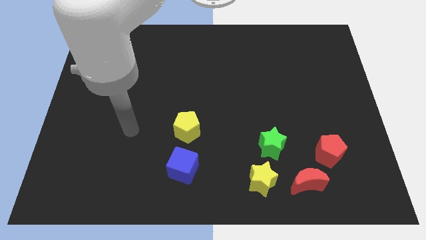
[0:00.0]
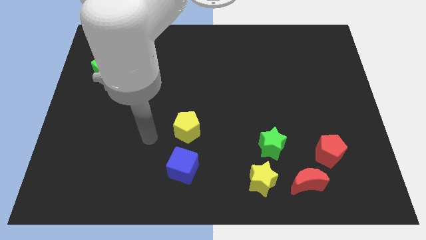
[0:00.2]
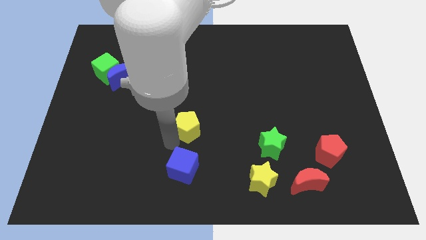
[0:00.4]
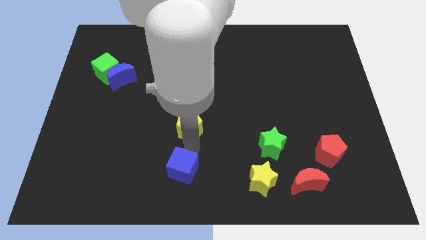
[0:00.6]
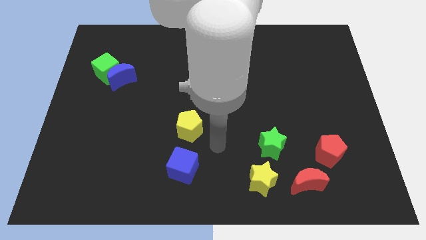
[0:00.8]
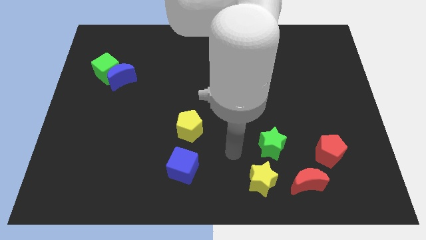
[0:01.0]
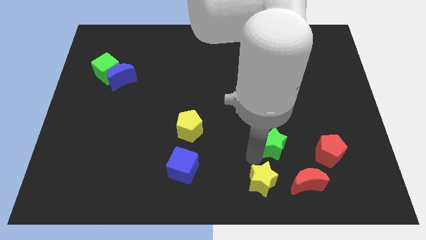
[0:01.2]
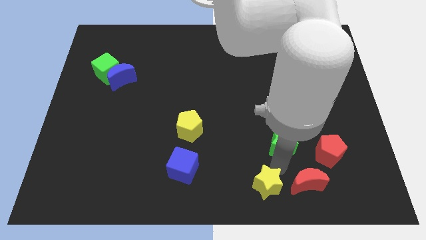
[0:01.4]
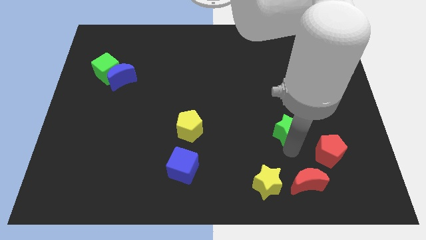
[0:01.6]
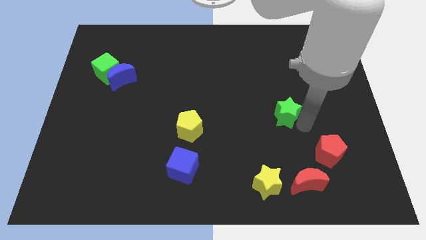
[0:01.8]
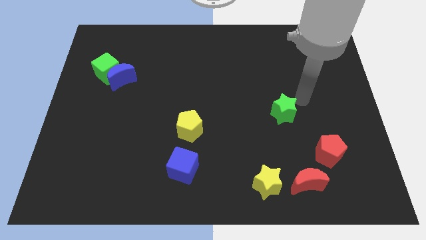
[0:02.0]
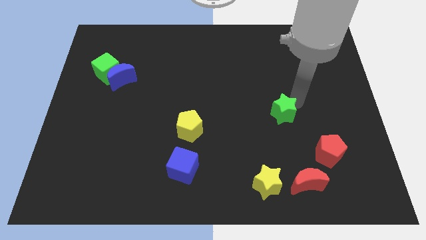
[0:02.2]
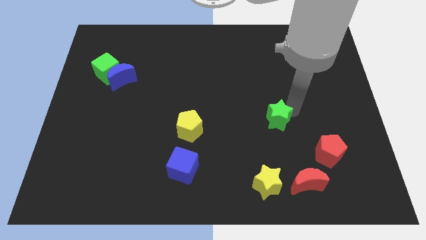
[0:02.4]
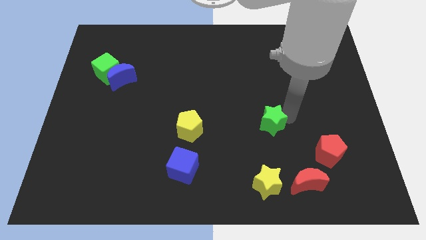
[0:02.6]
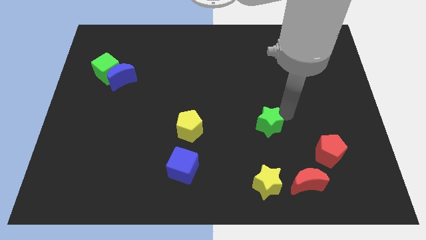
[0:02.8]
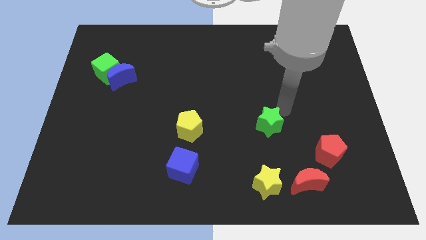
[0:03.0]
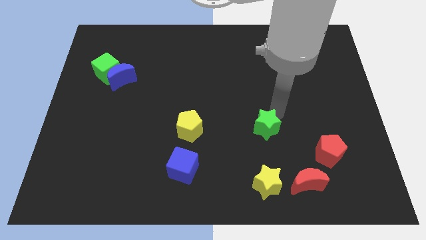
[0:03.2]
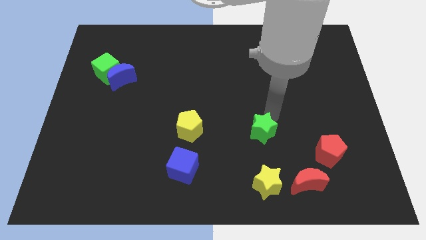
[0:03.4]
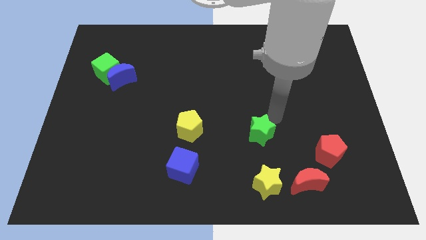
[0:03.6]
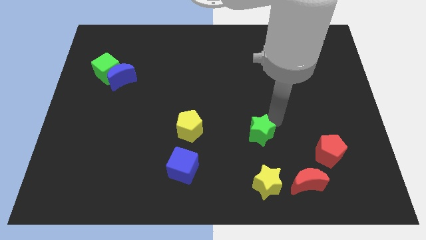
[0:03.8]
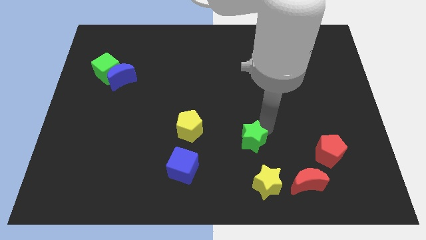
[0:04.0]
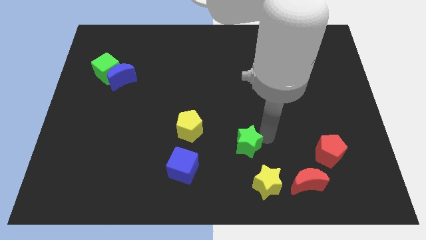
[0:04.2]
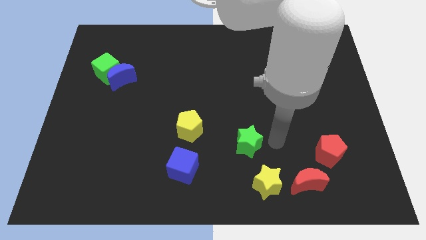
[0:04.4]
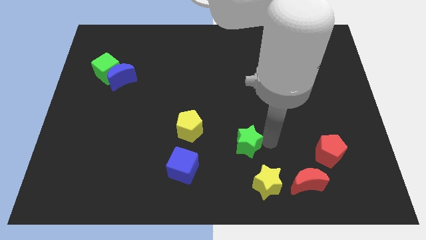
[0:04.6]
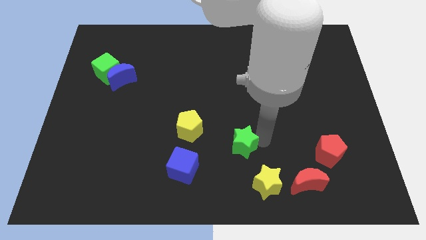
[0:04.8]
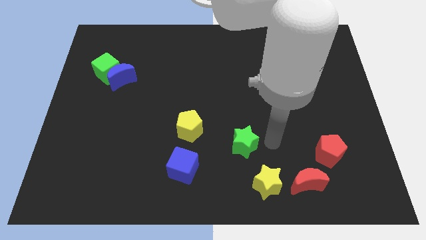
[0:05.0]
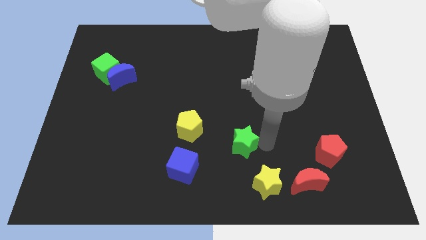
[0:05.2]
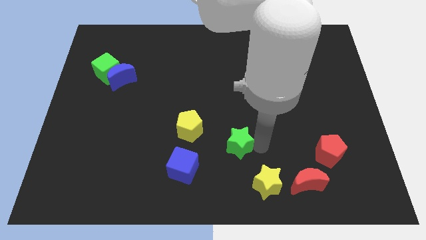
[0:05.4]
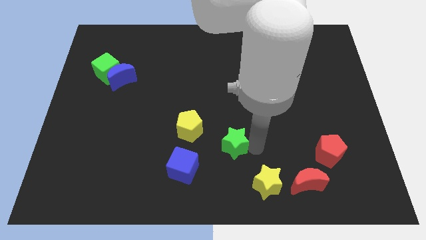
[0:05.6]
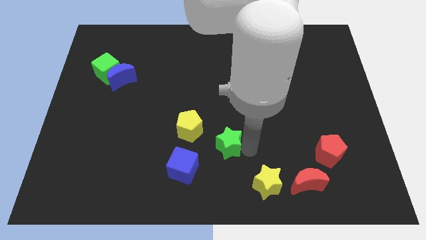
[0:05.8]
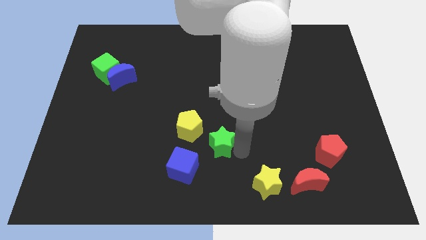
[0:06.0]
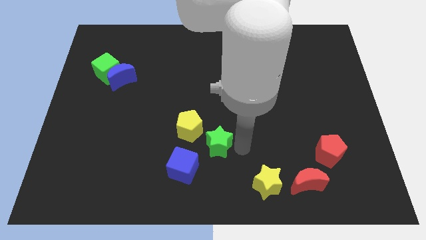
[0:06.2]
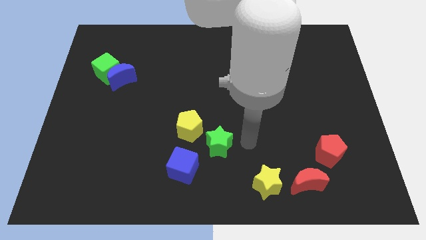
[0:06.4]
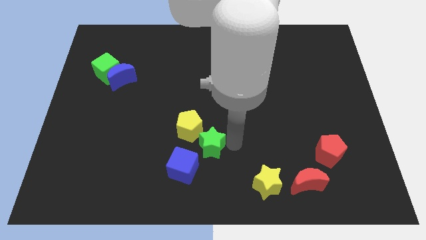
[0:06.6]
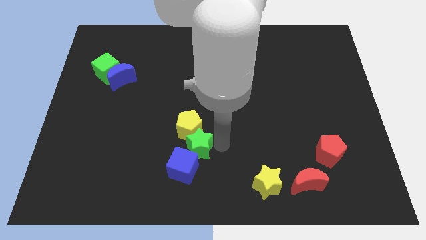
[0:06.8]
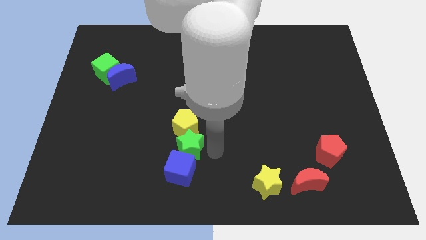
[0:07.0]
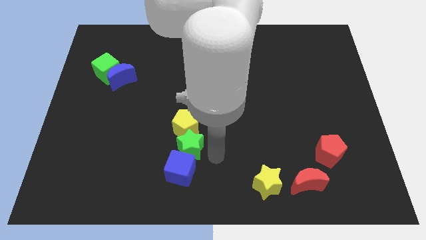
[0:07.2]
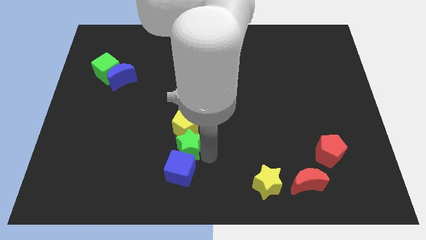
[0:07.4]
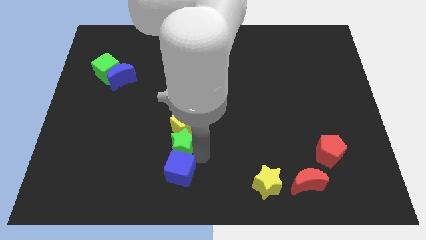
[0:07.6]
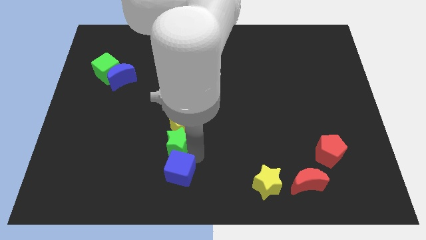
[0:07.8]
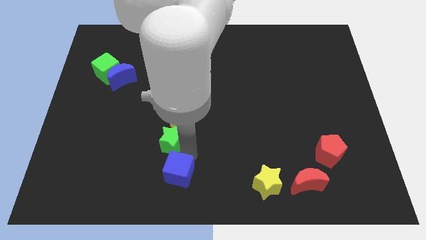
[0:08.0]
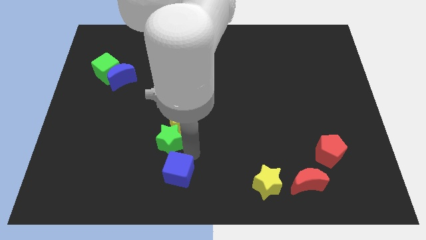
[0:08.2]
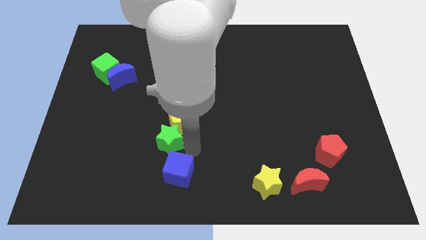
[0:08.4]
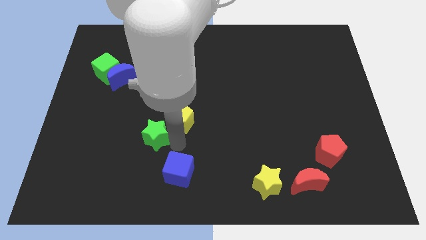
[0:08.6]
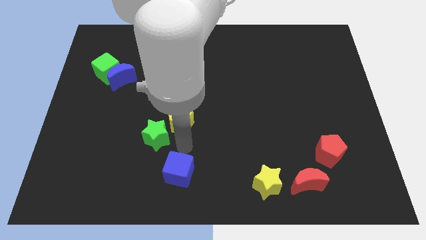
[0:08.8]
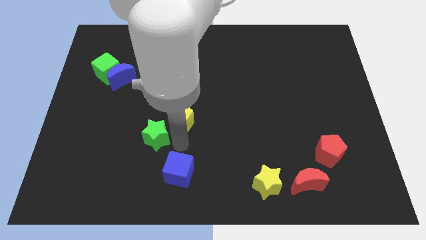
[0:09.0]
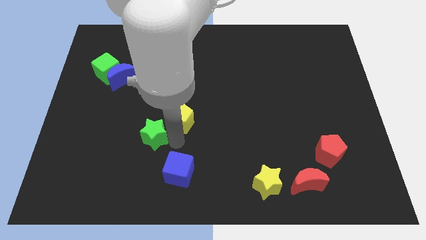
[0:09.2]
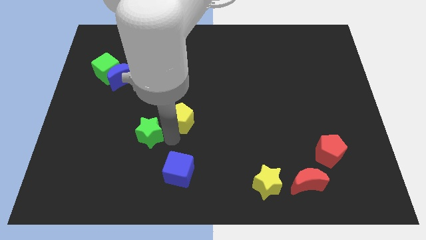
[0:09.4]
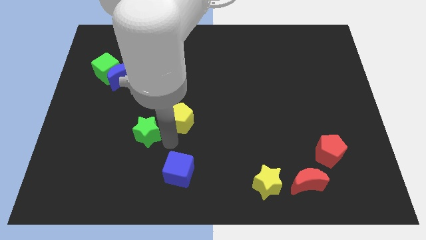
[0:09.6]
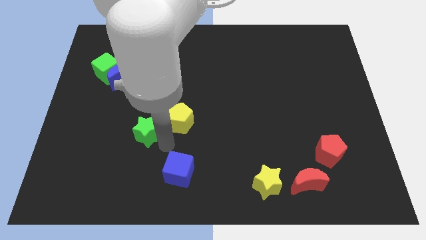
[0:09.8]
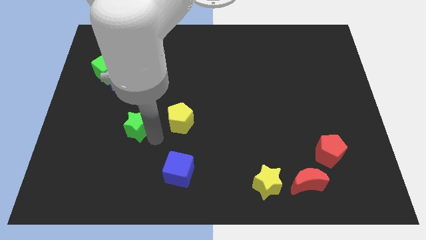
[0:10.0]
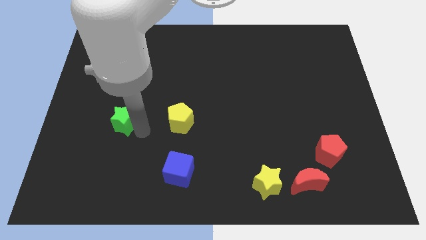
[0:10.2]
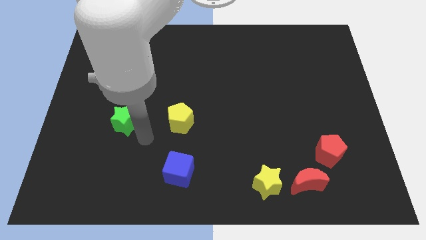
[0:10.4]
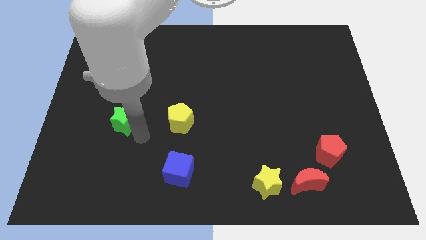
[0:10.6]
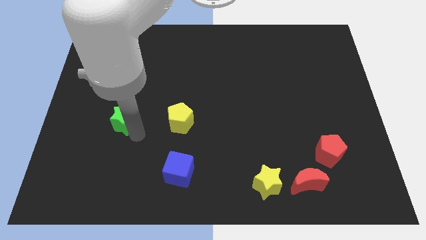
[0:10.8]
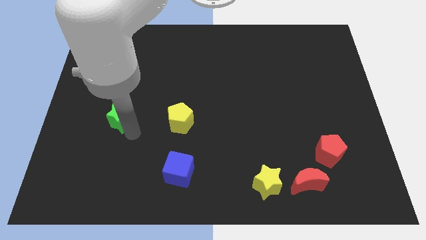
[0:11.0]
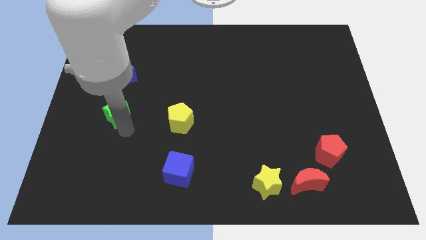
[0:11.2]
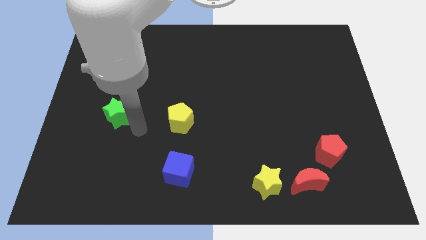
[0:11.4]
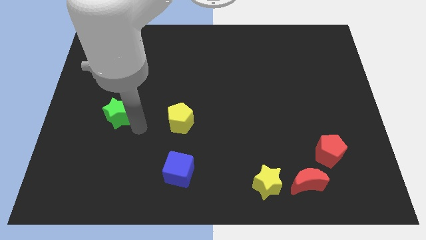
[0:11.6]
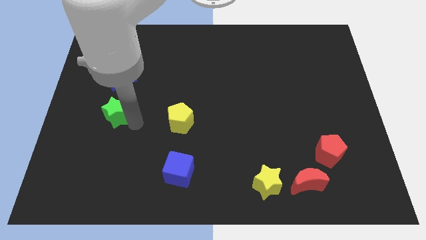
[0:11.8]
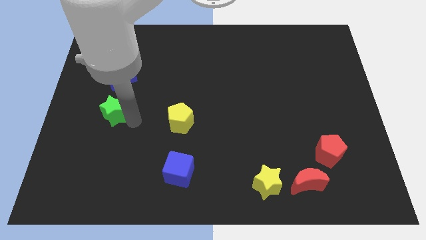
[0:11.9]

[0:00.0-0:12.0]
move the green star to the bottom side of the green cube

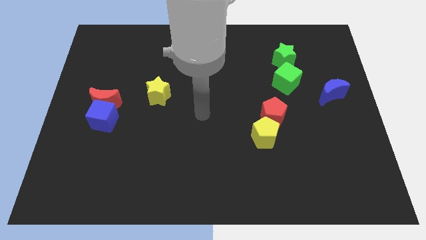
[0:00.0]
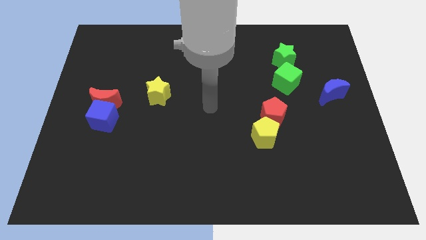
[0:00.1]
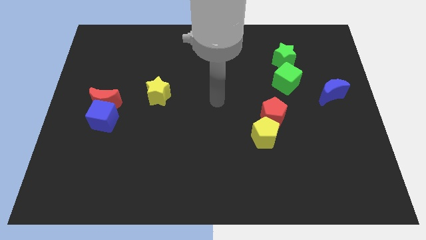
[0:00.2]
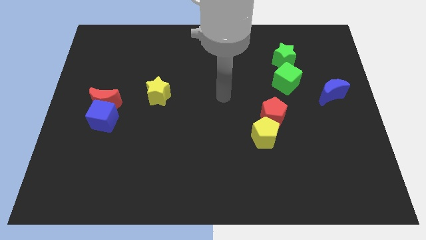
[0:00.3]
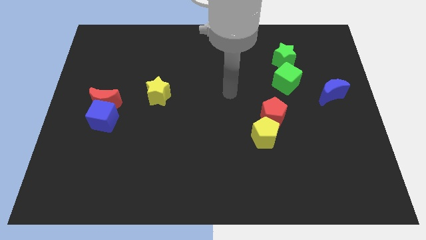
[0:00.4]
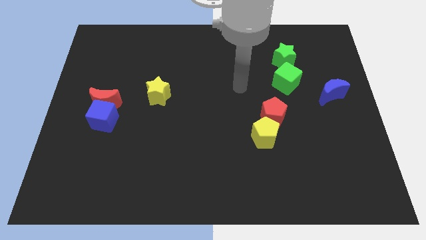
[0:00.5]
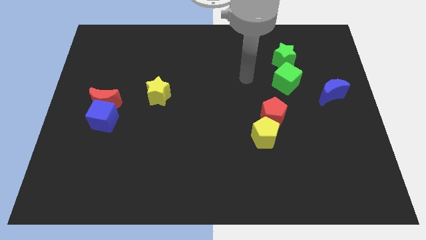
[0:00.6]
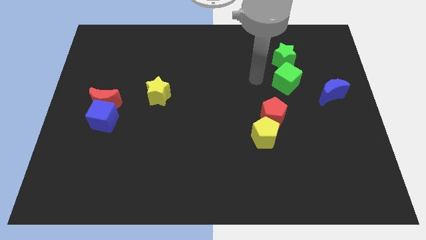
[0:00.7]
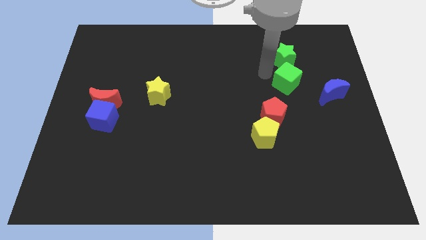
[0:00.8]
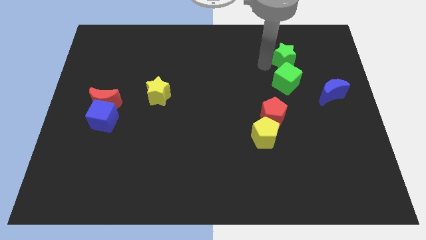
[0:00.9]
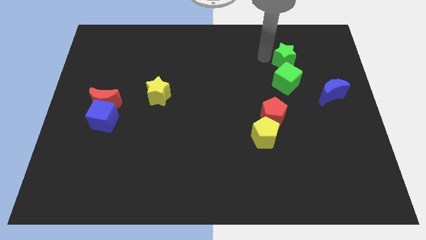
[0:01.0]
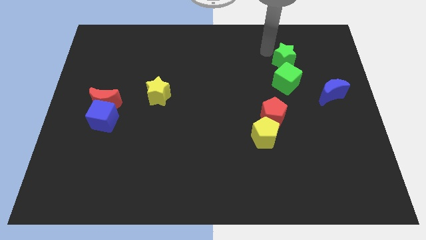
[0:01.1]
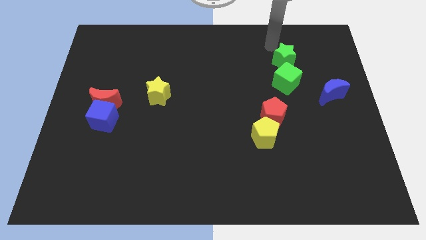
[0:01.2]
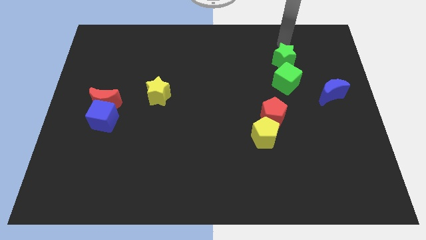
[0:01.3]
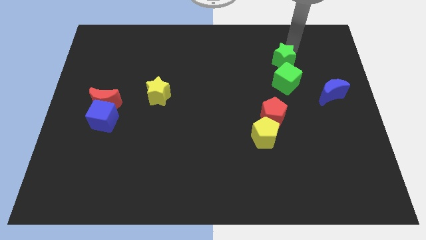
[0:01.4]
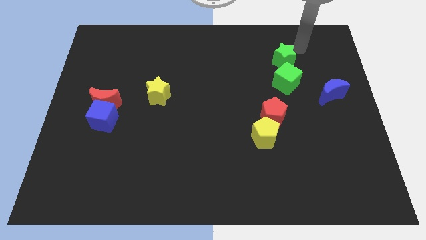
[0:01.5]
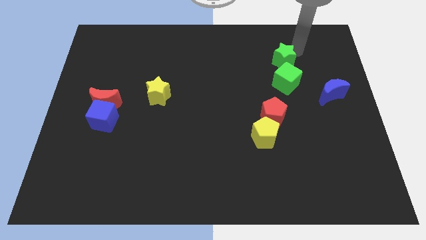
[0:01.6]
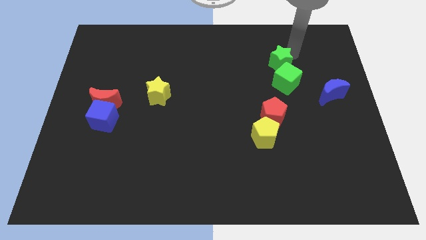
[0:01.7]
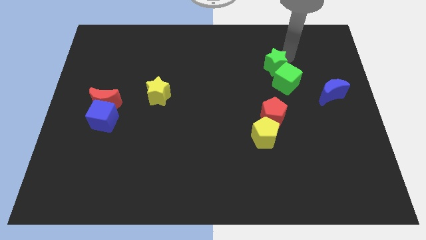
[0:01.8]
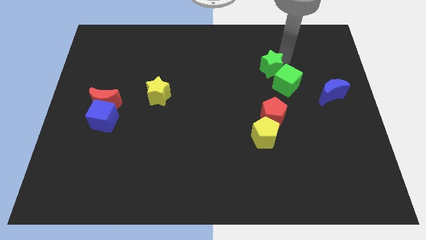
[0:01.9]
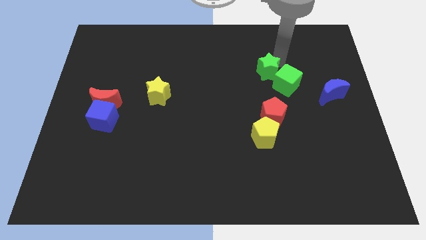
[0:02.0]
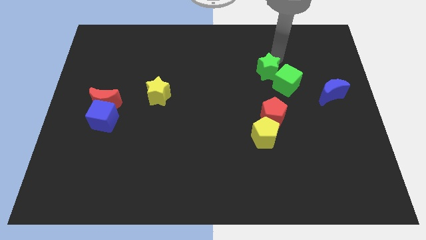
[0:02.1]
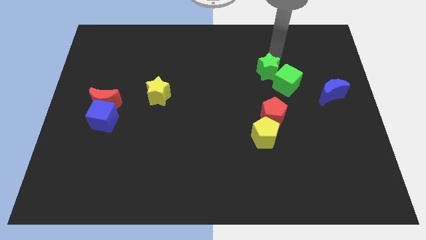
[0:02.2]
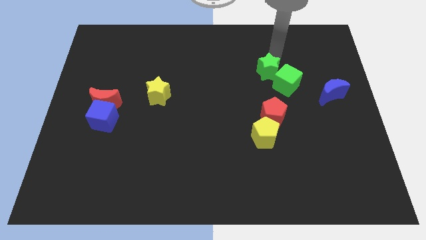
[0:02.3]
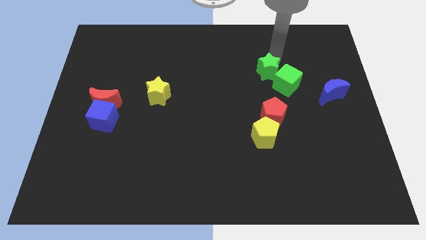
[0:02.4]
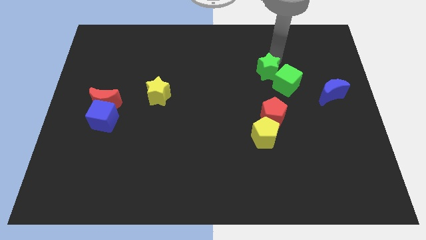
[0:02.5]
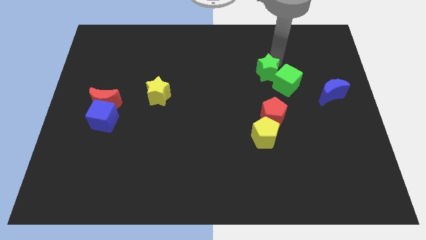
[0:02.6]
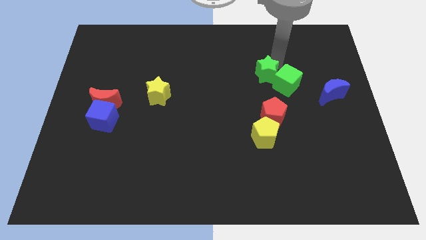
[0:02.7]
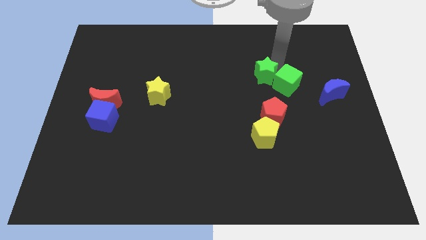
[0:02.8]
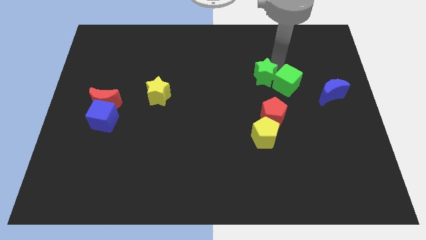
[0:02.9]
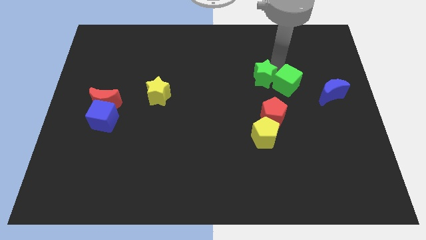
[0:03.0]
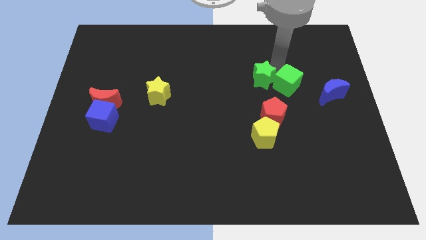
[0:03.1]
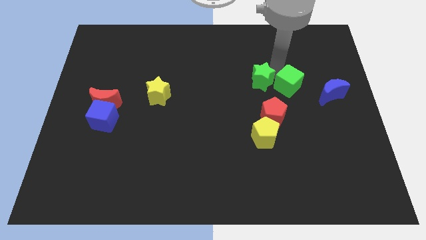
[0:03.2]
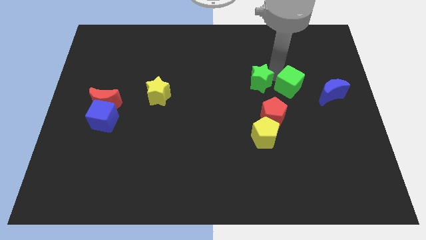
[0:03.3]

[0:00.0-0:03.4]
slide the green star to the top side of the yellow pentagon
